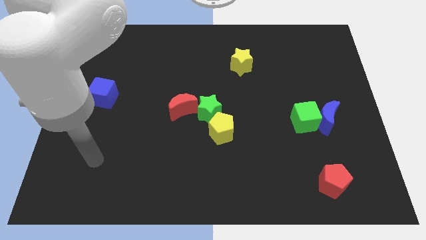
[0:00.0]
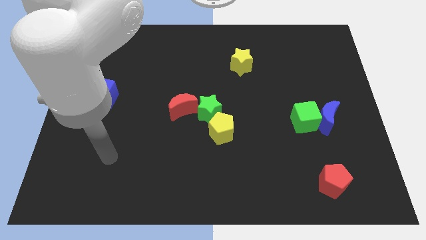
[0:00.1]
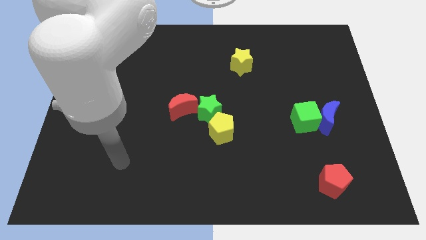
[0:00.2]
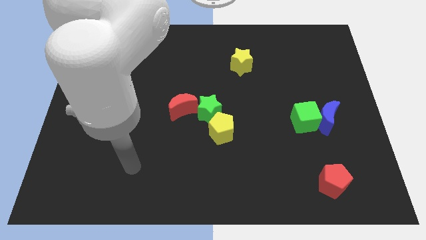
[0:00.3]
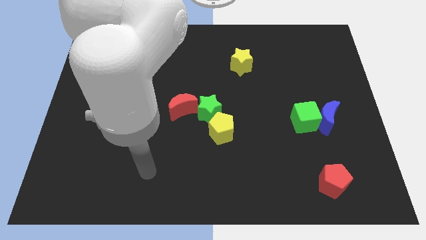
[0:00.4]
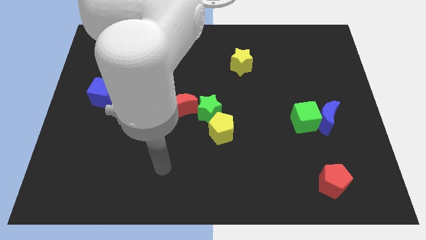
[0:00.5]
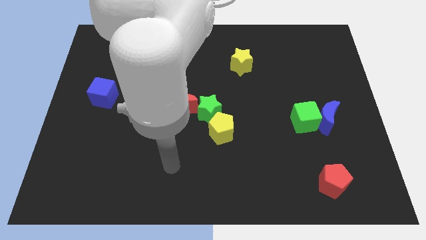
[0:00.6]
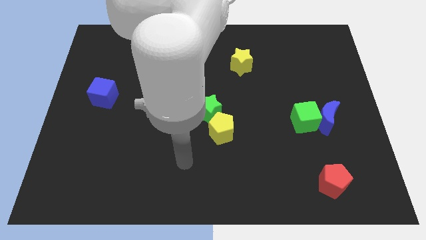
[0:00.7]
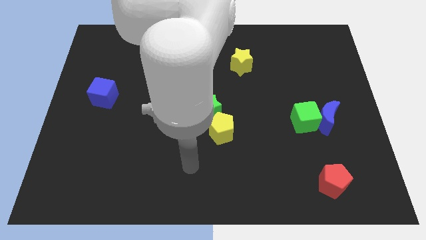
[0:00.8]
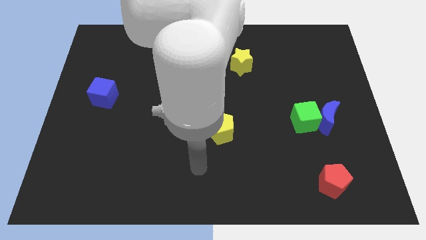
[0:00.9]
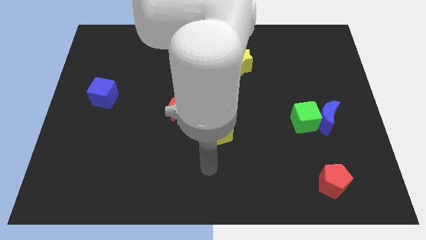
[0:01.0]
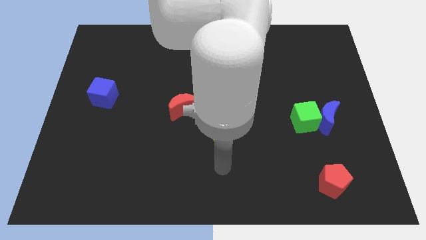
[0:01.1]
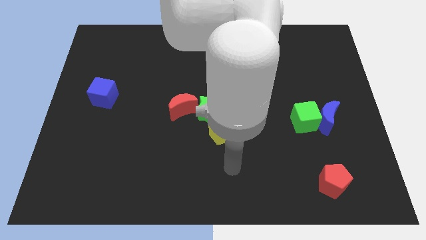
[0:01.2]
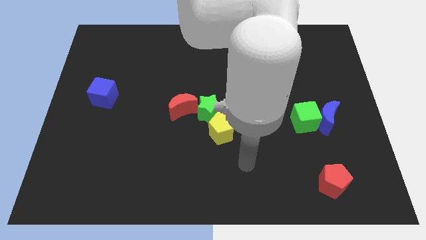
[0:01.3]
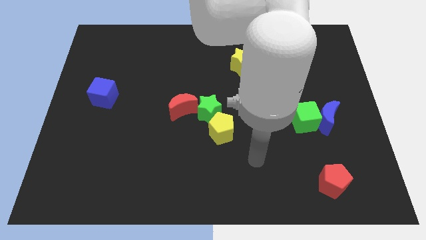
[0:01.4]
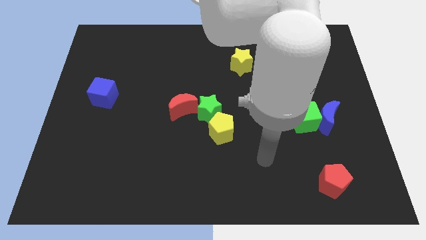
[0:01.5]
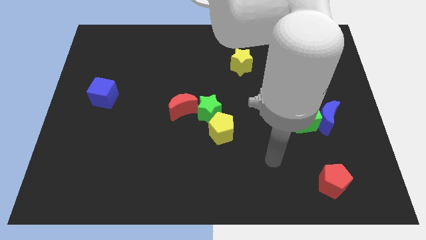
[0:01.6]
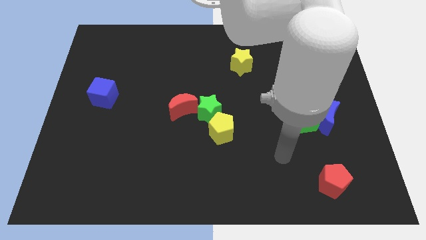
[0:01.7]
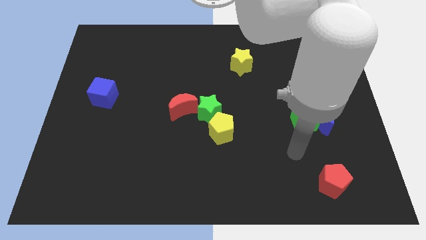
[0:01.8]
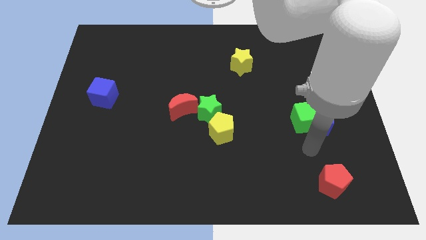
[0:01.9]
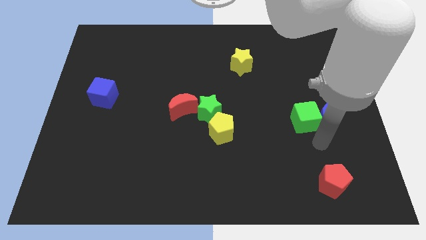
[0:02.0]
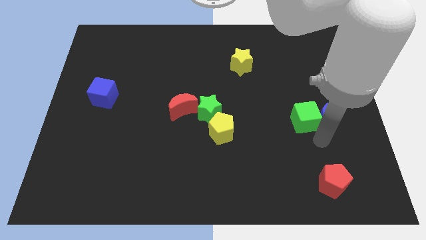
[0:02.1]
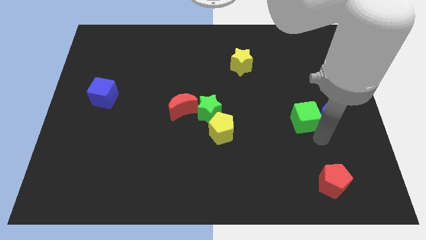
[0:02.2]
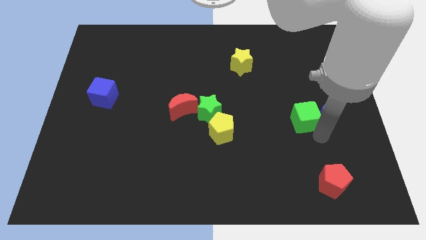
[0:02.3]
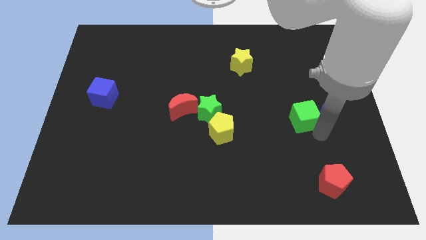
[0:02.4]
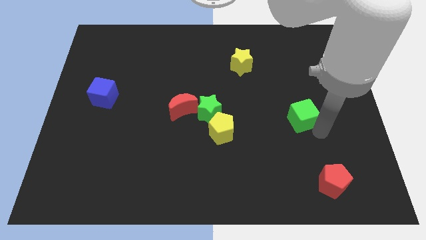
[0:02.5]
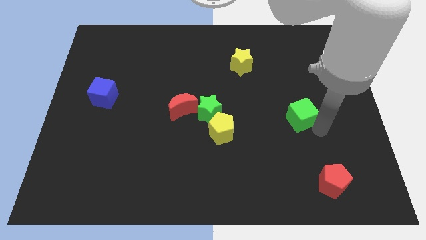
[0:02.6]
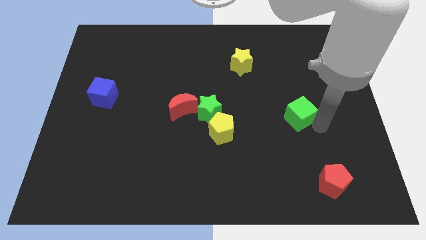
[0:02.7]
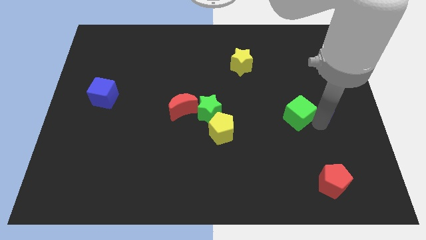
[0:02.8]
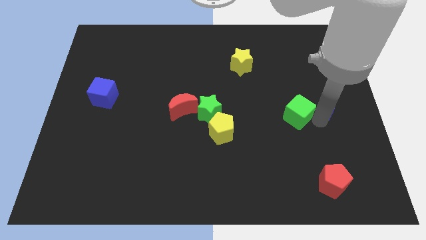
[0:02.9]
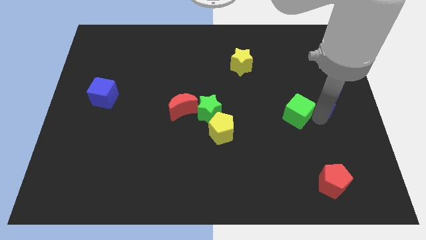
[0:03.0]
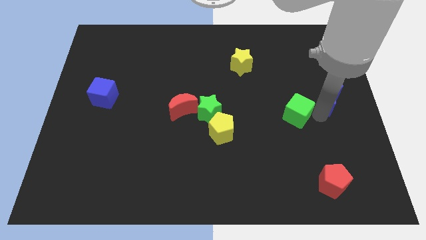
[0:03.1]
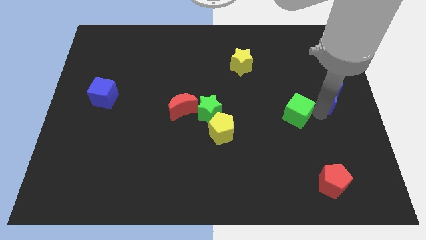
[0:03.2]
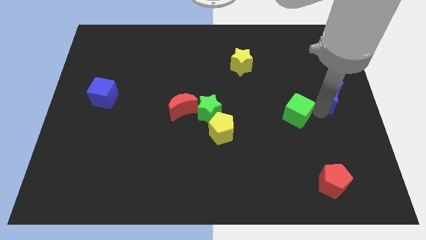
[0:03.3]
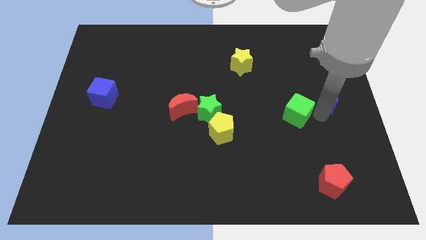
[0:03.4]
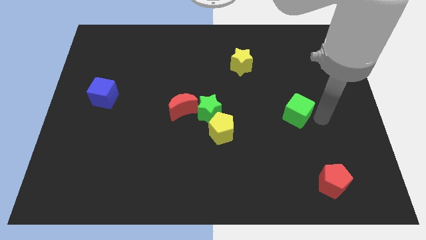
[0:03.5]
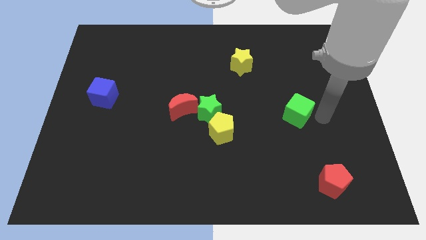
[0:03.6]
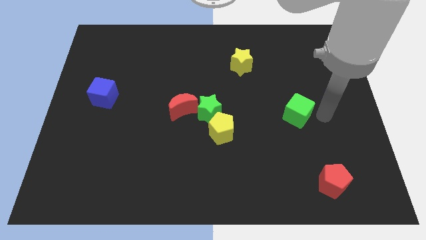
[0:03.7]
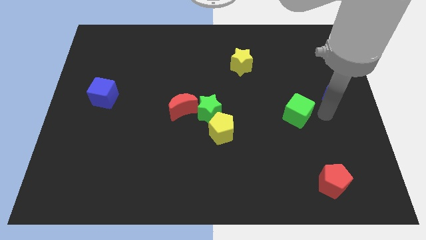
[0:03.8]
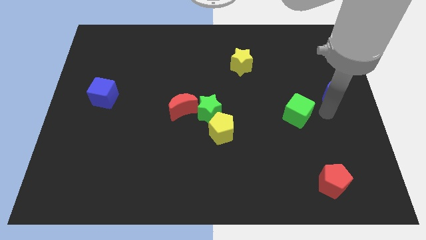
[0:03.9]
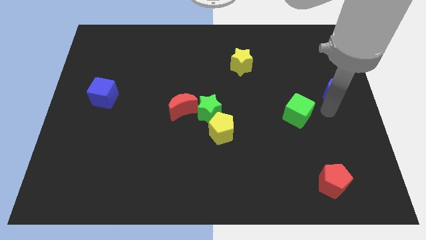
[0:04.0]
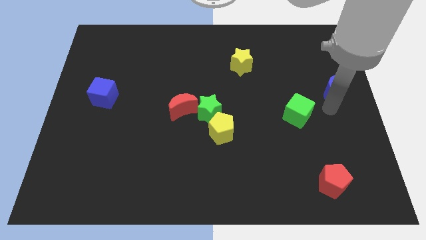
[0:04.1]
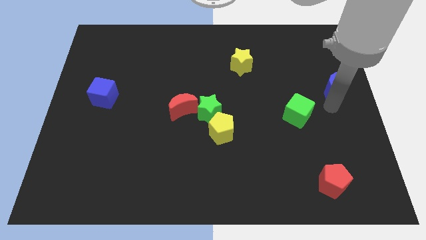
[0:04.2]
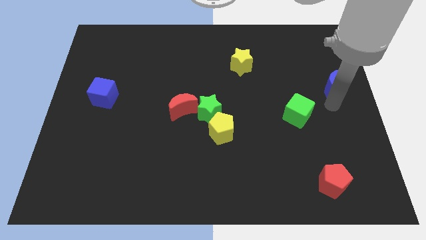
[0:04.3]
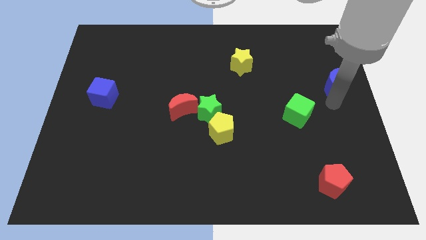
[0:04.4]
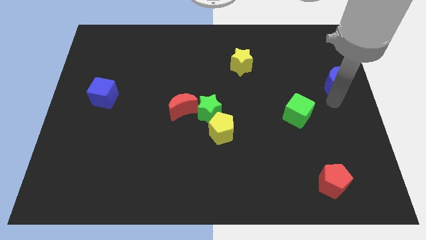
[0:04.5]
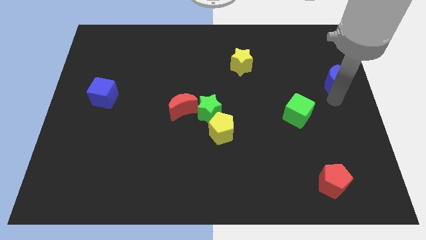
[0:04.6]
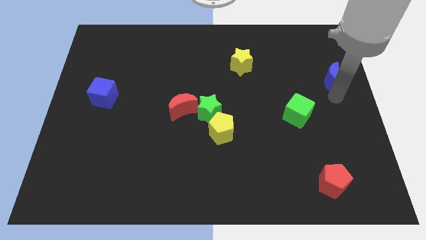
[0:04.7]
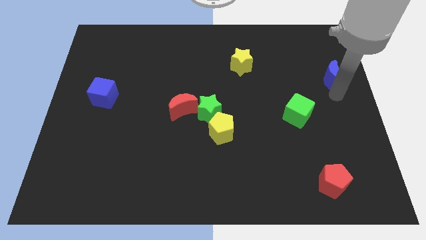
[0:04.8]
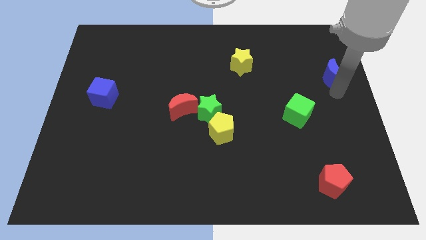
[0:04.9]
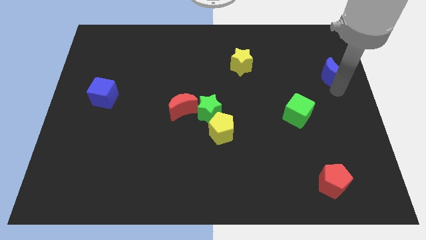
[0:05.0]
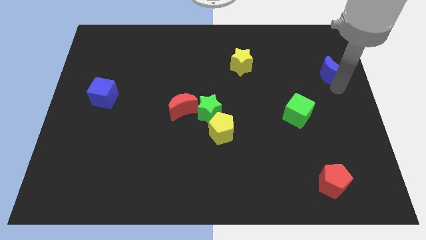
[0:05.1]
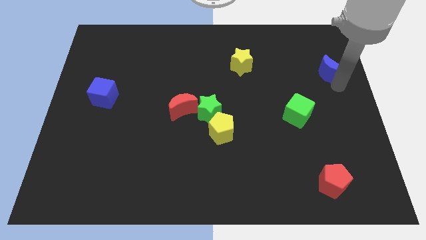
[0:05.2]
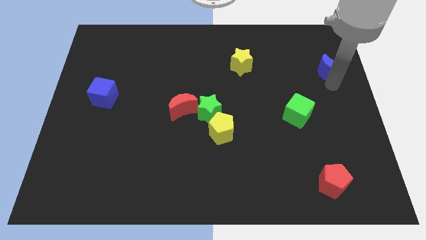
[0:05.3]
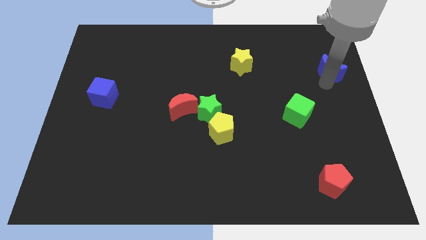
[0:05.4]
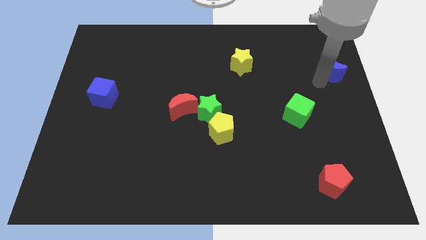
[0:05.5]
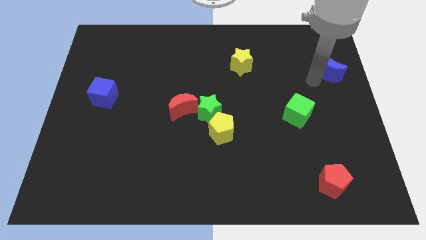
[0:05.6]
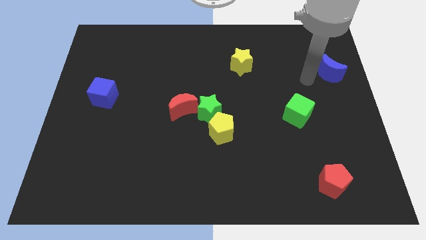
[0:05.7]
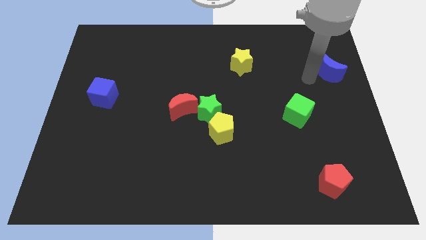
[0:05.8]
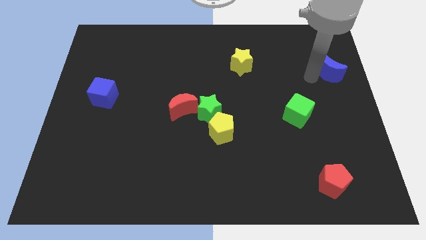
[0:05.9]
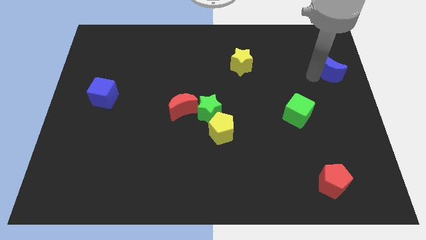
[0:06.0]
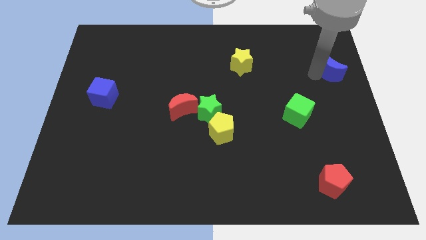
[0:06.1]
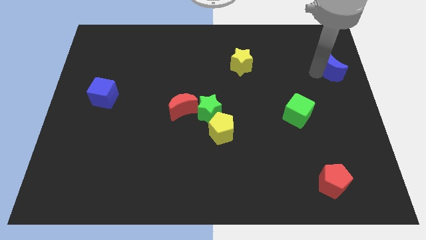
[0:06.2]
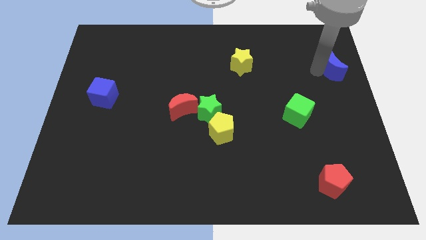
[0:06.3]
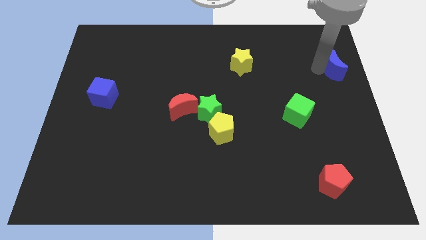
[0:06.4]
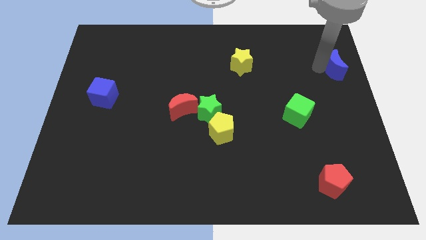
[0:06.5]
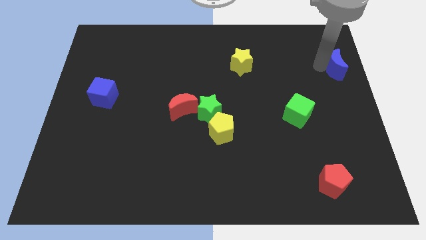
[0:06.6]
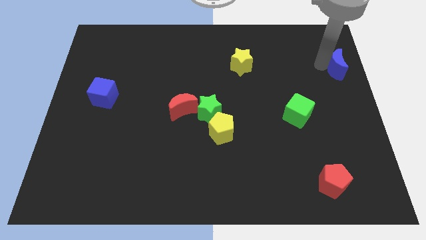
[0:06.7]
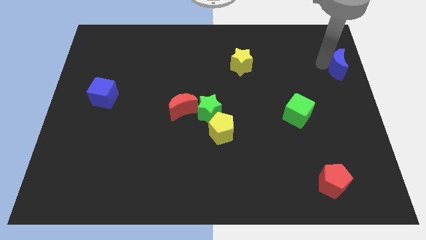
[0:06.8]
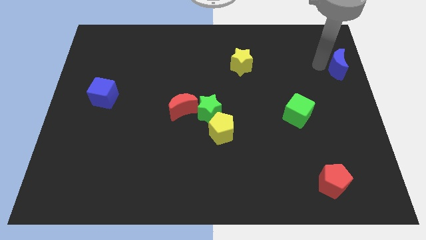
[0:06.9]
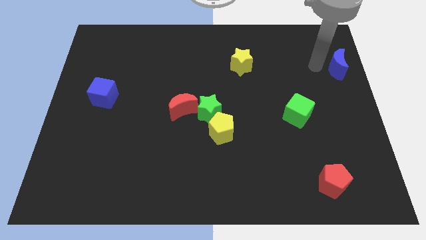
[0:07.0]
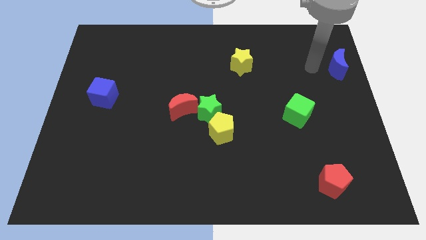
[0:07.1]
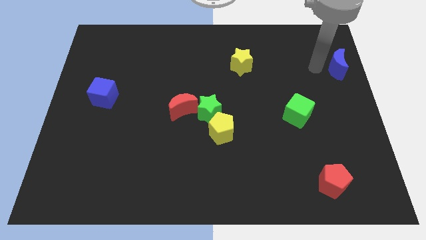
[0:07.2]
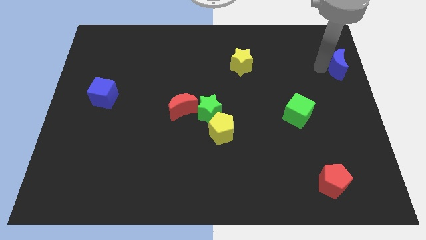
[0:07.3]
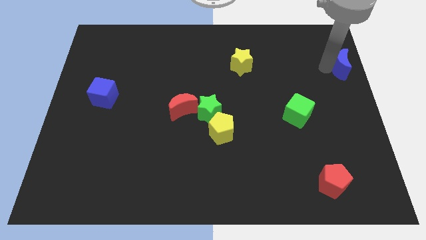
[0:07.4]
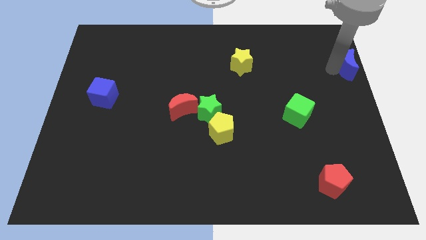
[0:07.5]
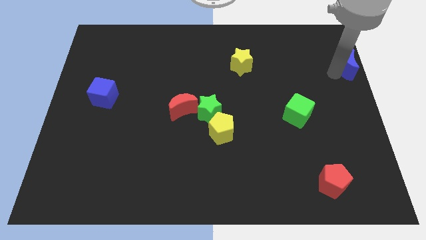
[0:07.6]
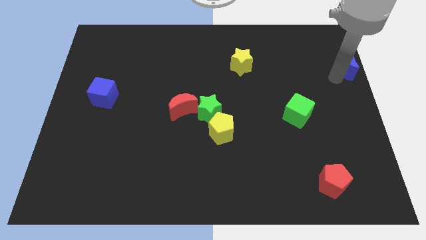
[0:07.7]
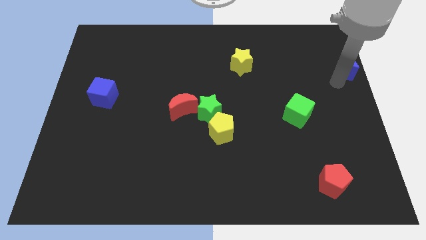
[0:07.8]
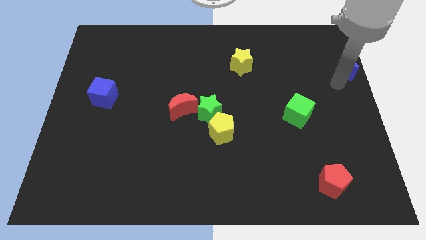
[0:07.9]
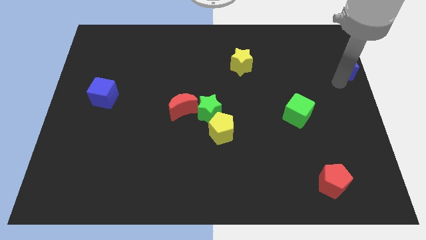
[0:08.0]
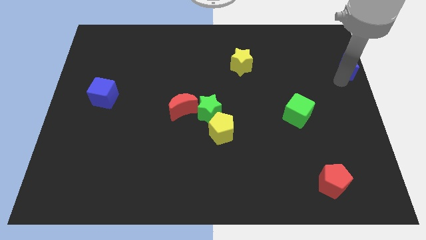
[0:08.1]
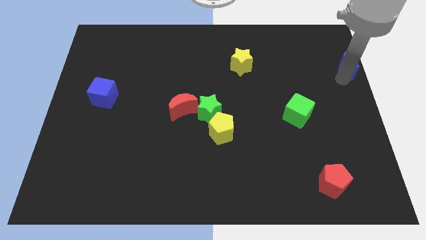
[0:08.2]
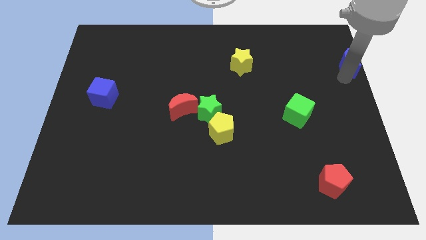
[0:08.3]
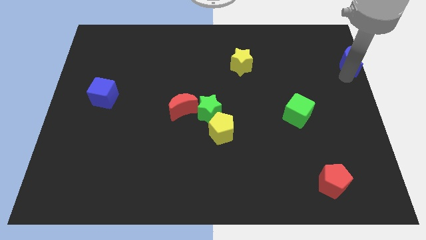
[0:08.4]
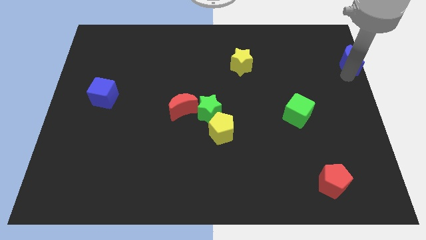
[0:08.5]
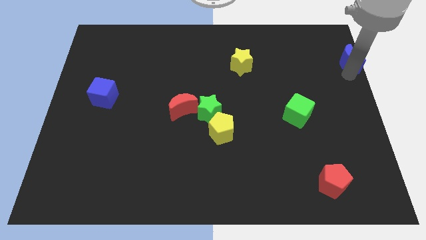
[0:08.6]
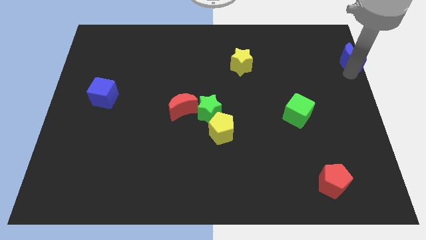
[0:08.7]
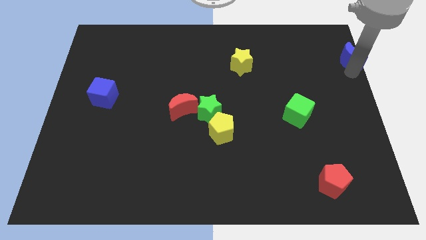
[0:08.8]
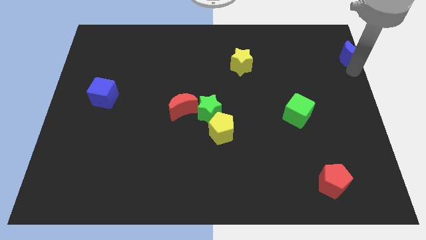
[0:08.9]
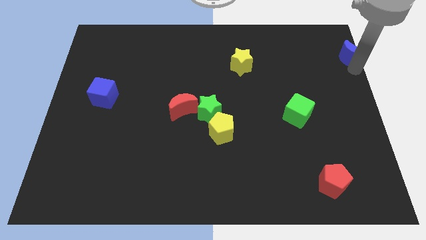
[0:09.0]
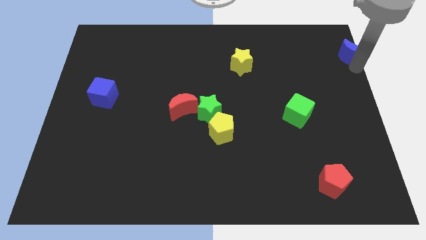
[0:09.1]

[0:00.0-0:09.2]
put the blue moon to the top right of the board
